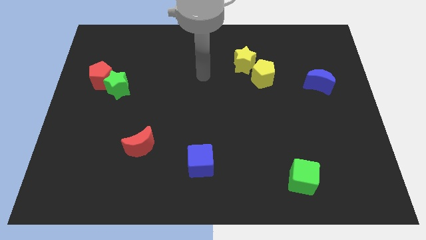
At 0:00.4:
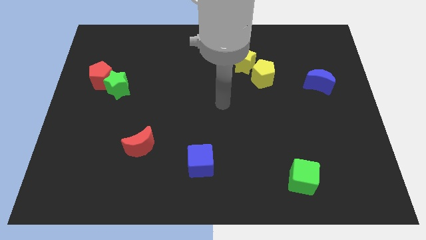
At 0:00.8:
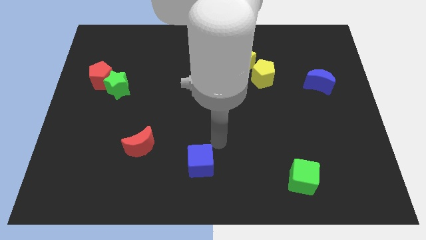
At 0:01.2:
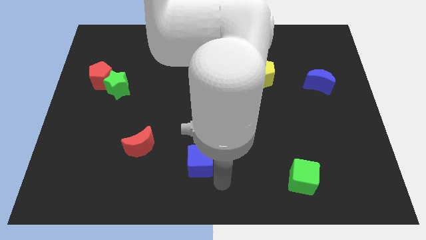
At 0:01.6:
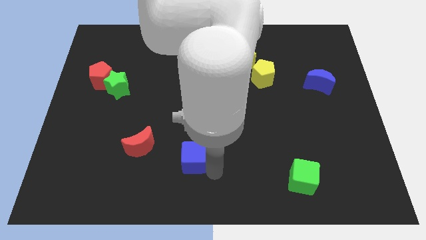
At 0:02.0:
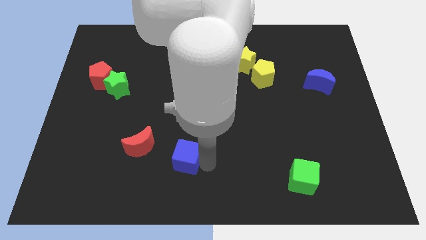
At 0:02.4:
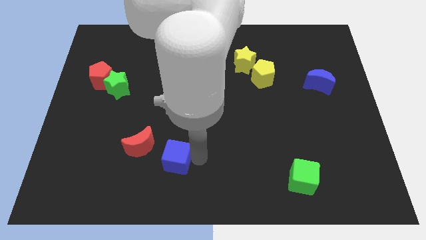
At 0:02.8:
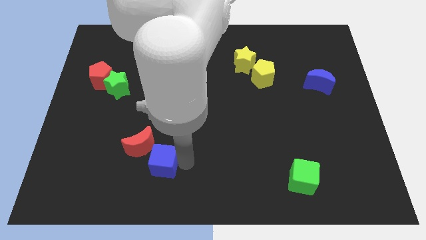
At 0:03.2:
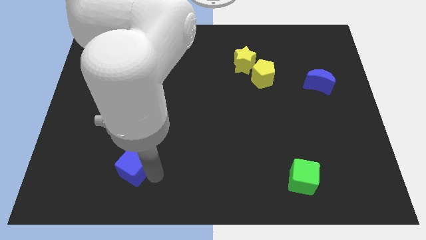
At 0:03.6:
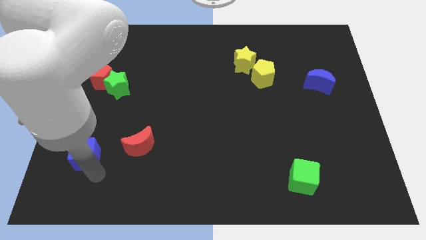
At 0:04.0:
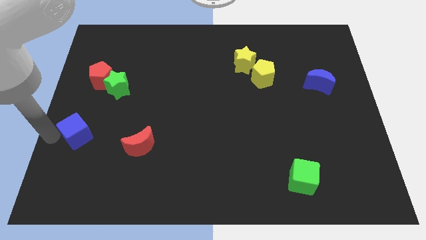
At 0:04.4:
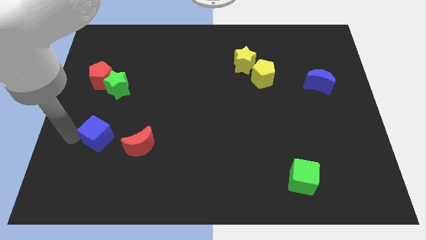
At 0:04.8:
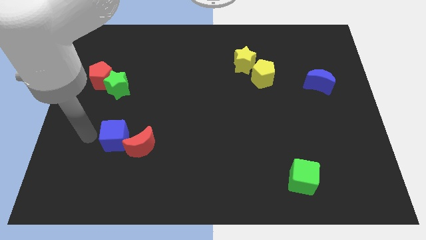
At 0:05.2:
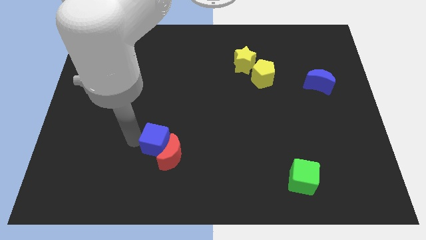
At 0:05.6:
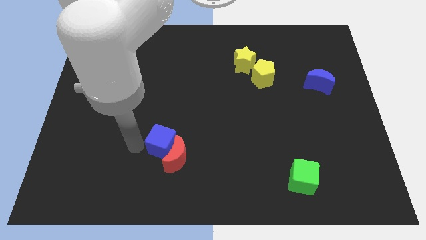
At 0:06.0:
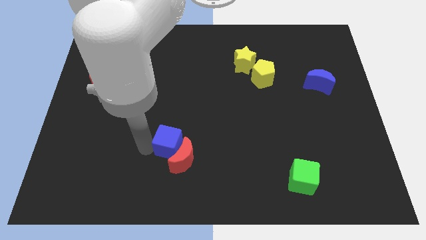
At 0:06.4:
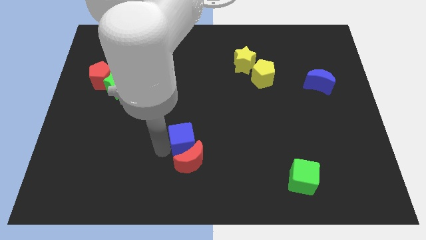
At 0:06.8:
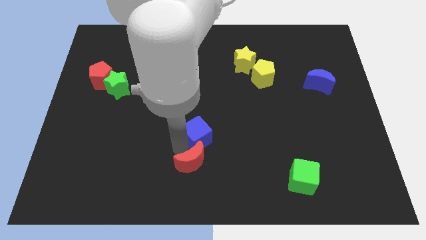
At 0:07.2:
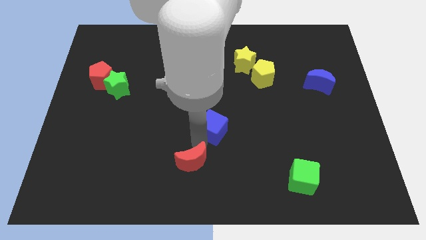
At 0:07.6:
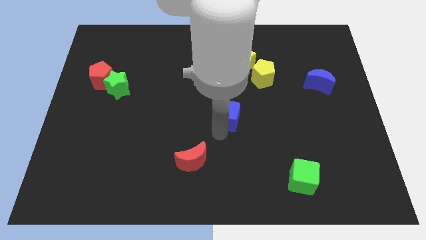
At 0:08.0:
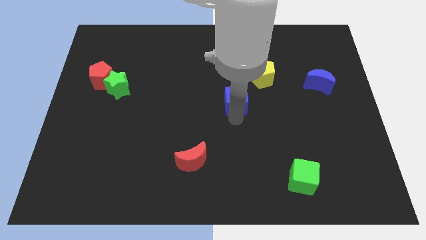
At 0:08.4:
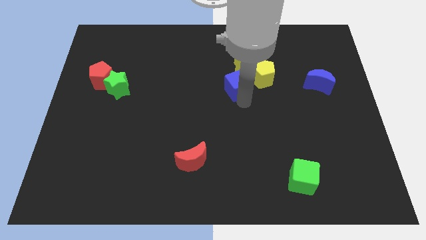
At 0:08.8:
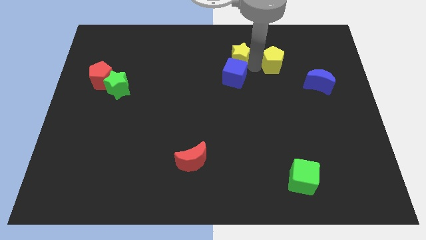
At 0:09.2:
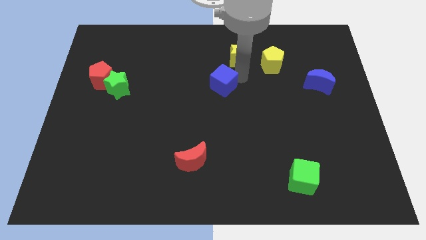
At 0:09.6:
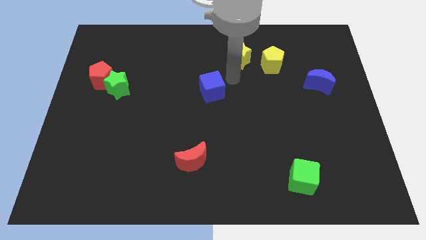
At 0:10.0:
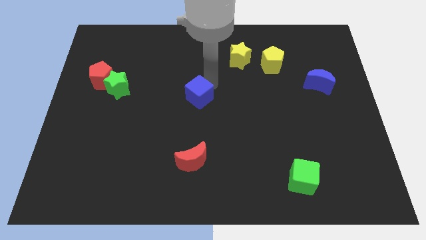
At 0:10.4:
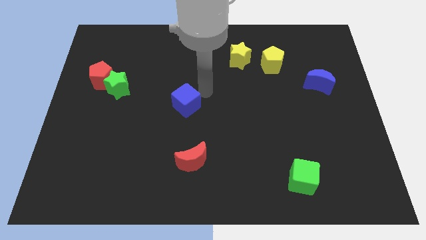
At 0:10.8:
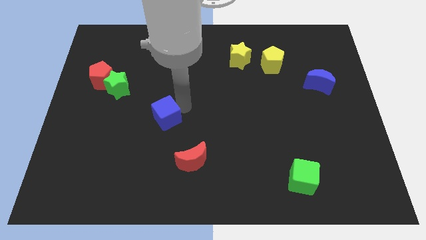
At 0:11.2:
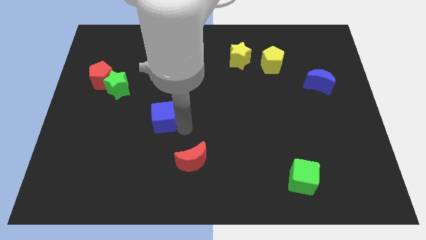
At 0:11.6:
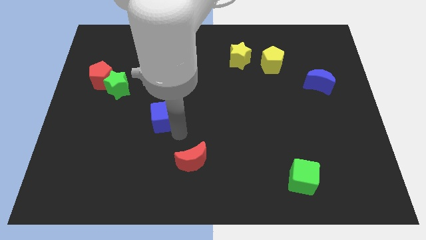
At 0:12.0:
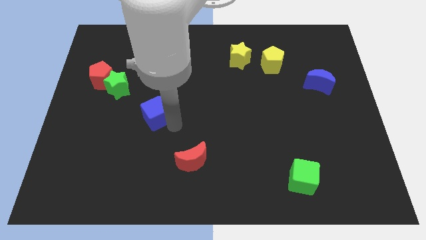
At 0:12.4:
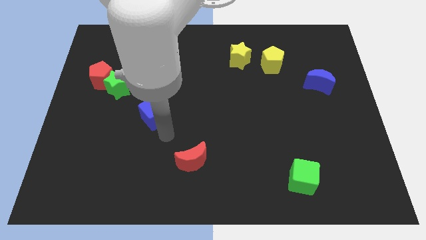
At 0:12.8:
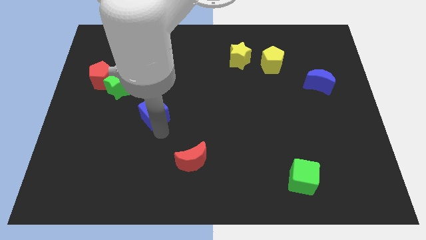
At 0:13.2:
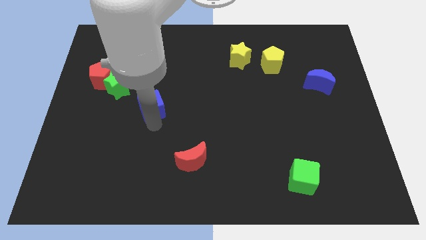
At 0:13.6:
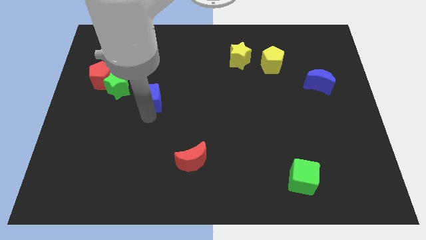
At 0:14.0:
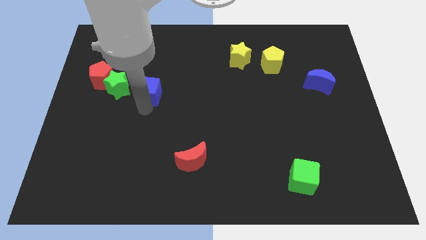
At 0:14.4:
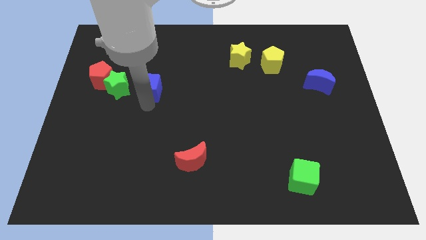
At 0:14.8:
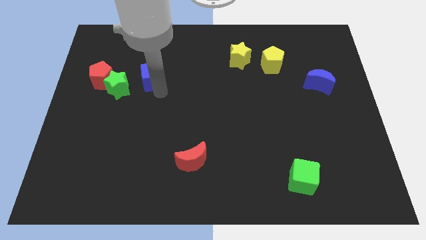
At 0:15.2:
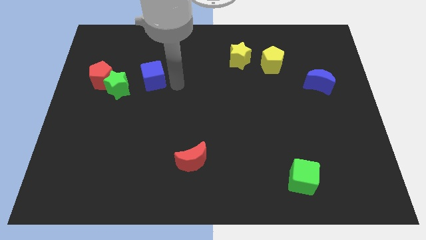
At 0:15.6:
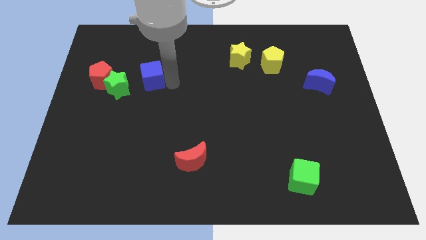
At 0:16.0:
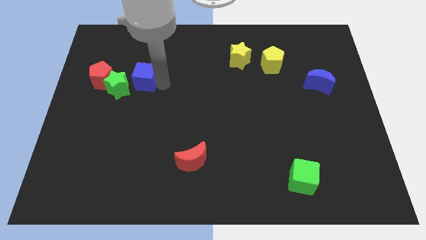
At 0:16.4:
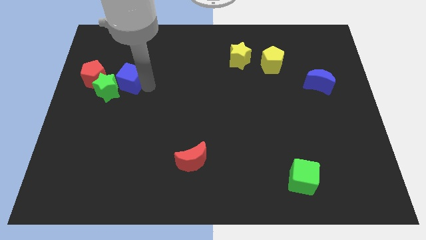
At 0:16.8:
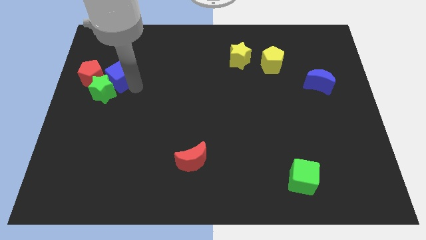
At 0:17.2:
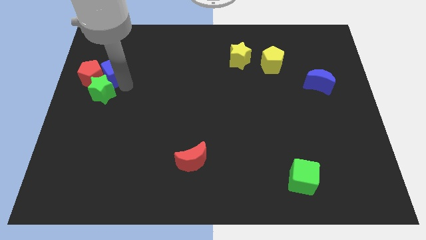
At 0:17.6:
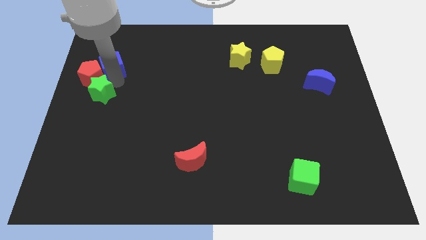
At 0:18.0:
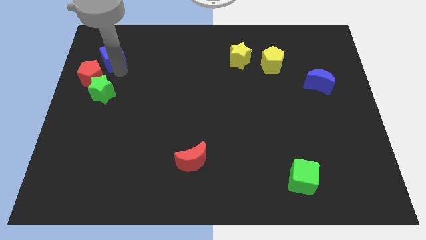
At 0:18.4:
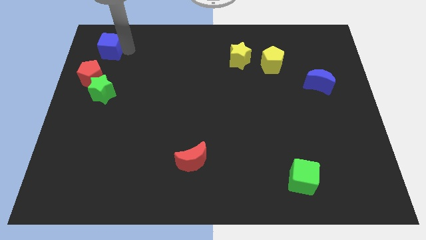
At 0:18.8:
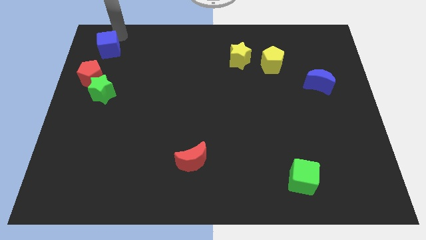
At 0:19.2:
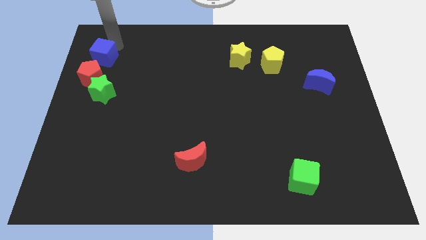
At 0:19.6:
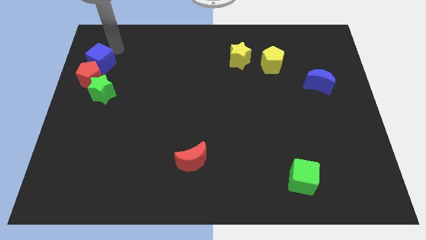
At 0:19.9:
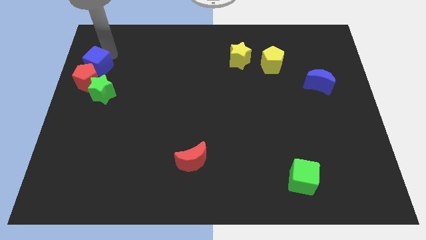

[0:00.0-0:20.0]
put the blue cube to the top left of the green star

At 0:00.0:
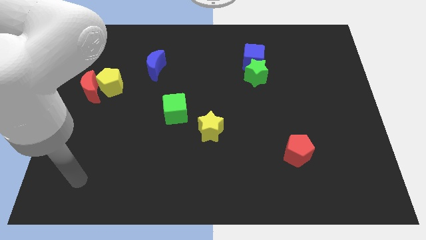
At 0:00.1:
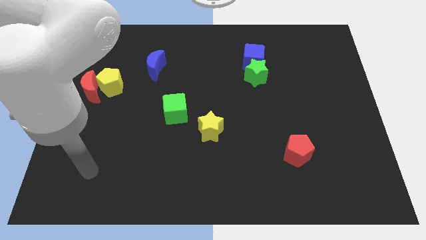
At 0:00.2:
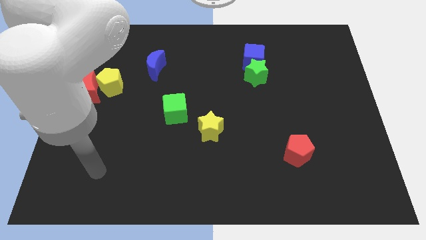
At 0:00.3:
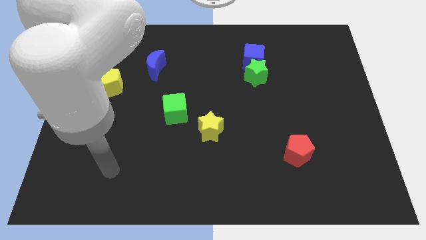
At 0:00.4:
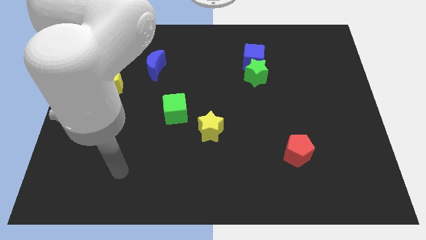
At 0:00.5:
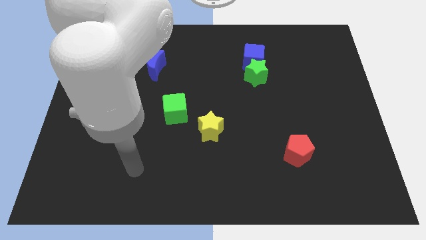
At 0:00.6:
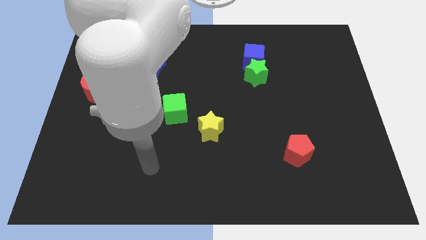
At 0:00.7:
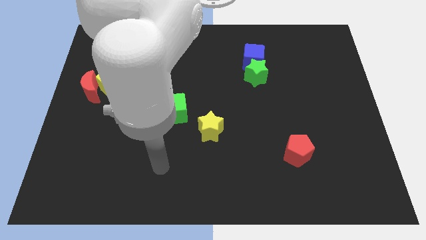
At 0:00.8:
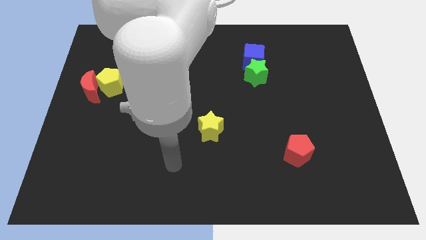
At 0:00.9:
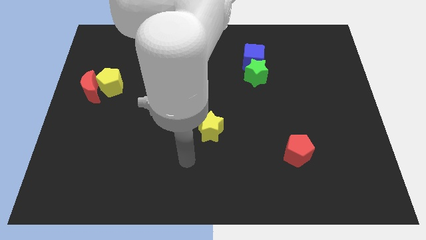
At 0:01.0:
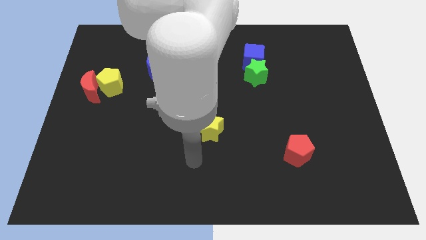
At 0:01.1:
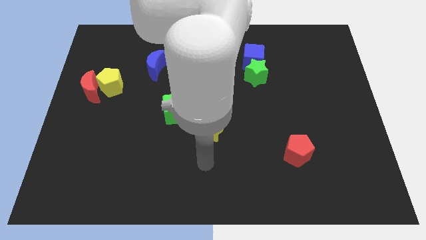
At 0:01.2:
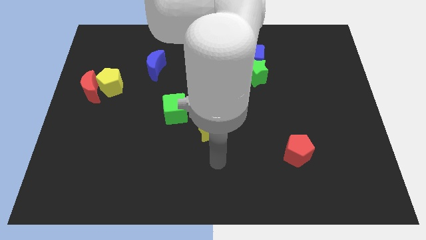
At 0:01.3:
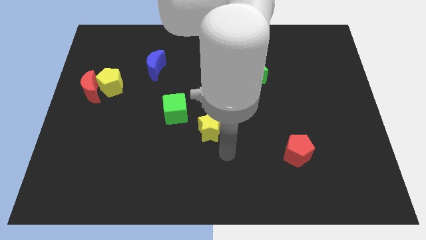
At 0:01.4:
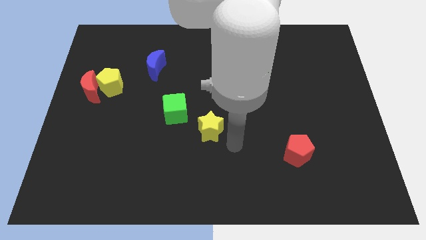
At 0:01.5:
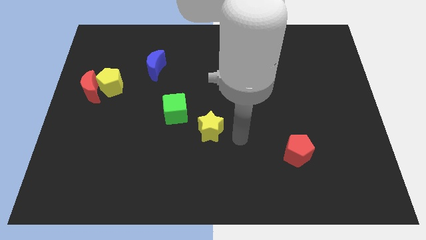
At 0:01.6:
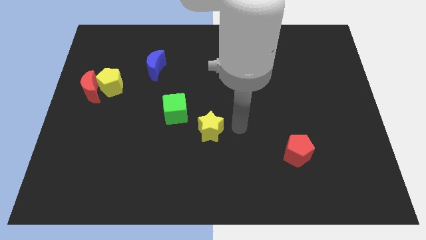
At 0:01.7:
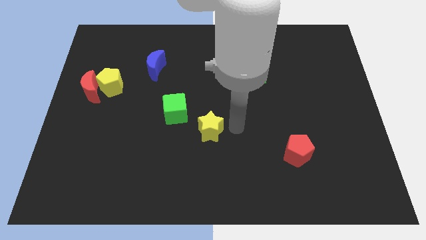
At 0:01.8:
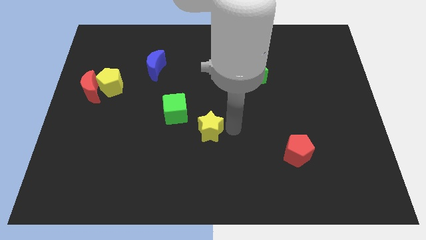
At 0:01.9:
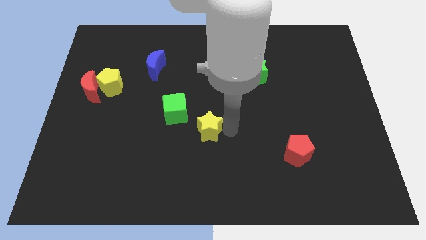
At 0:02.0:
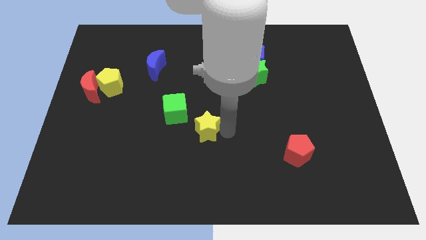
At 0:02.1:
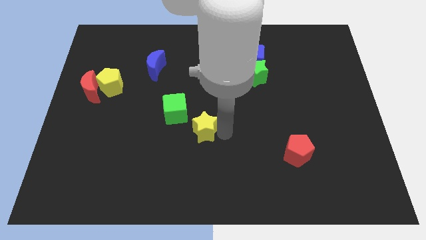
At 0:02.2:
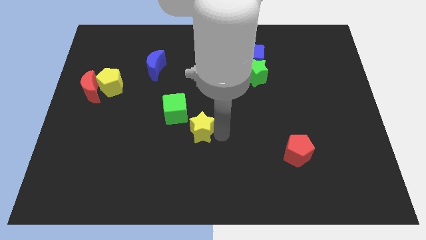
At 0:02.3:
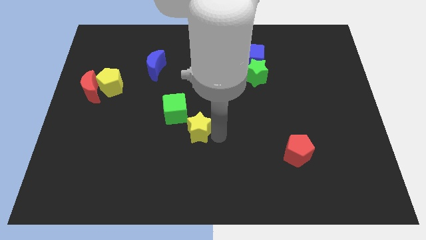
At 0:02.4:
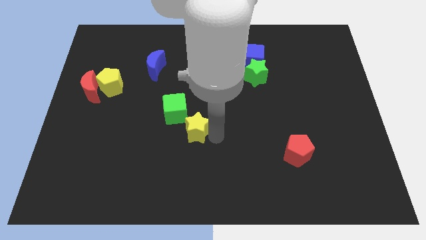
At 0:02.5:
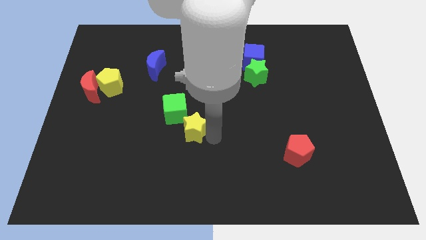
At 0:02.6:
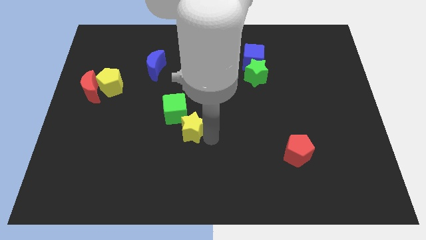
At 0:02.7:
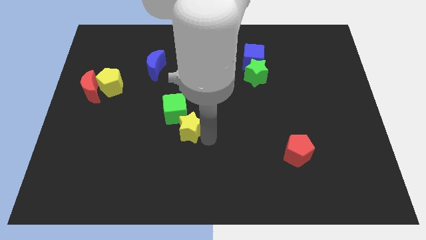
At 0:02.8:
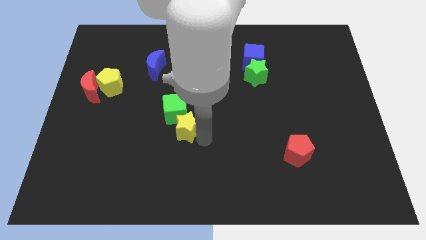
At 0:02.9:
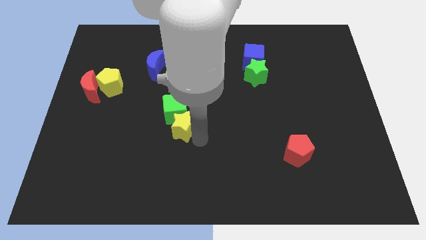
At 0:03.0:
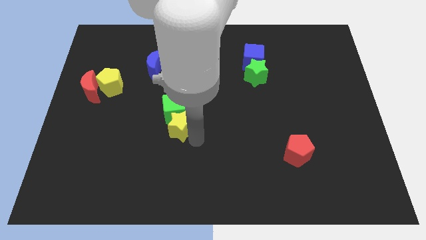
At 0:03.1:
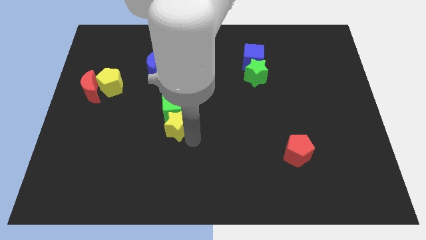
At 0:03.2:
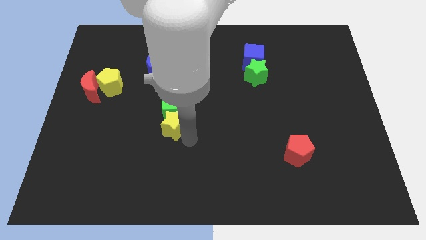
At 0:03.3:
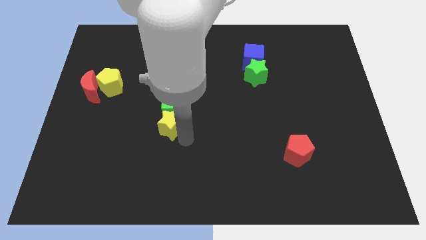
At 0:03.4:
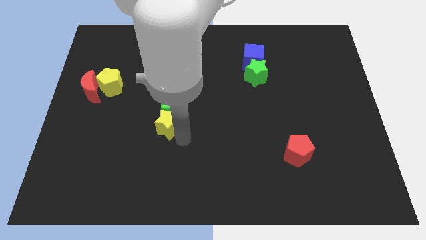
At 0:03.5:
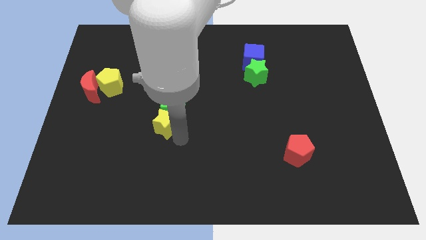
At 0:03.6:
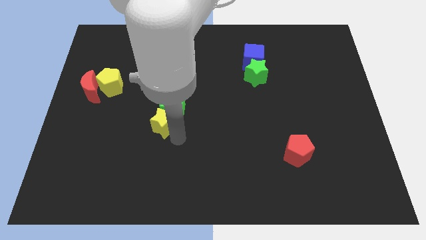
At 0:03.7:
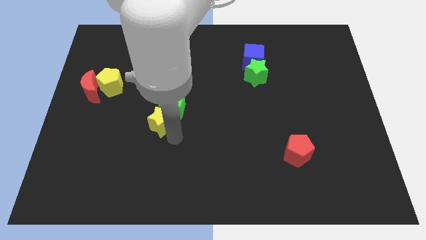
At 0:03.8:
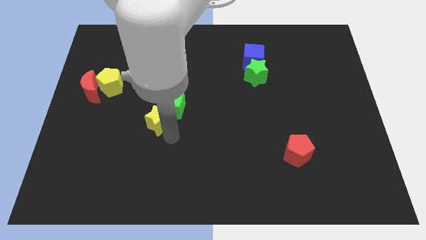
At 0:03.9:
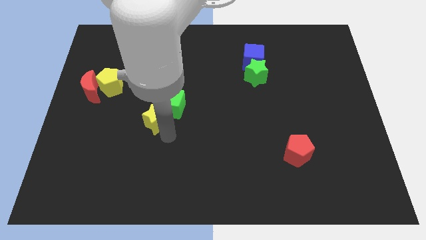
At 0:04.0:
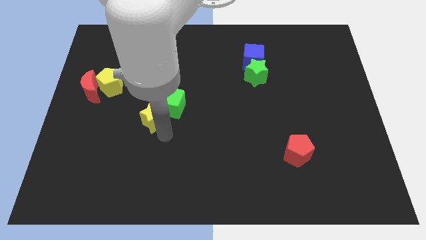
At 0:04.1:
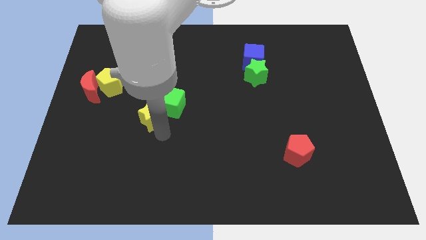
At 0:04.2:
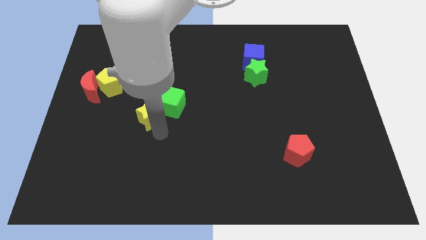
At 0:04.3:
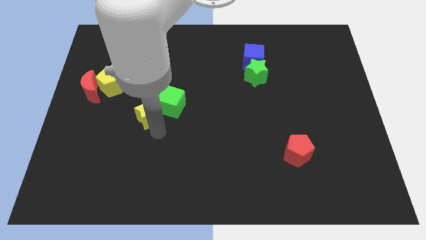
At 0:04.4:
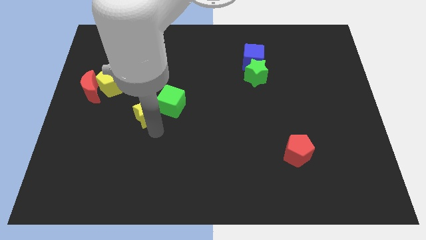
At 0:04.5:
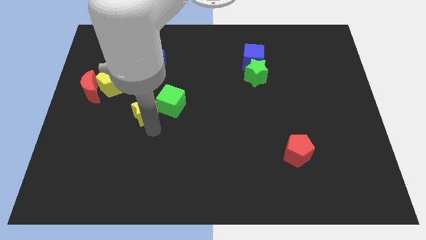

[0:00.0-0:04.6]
slide the yellow star to the bottom right of the yellow pentagon
